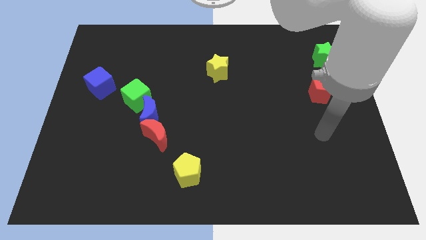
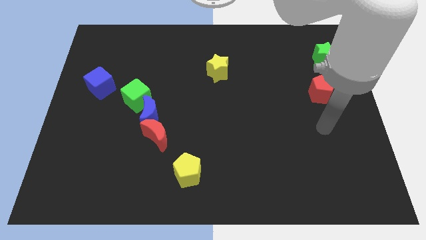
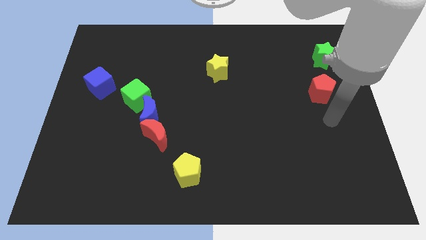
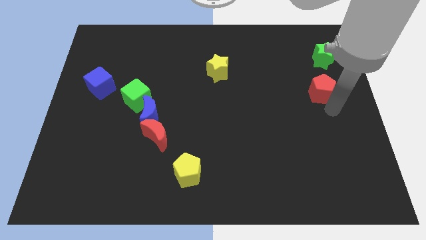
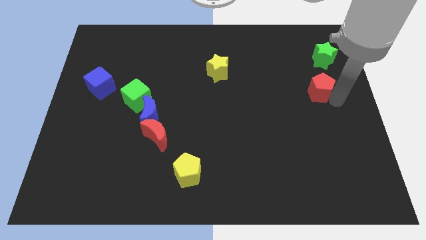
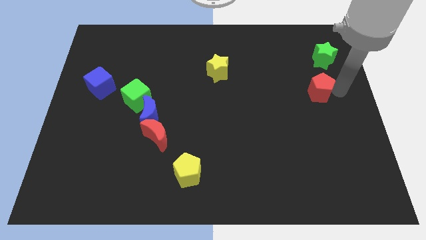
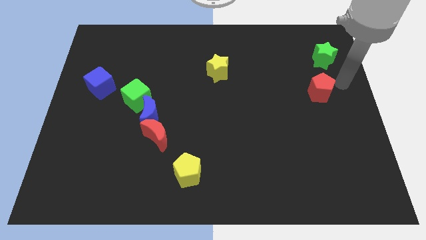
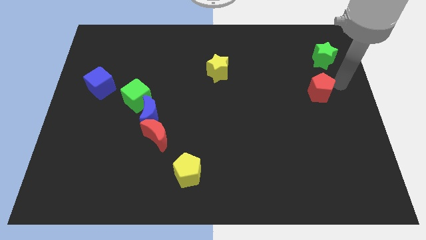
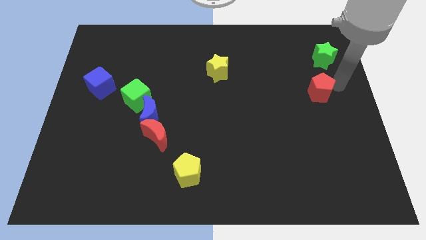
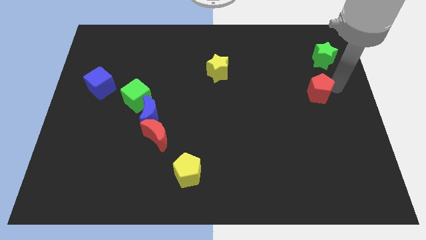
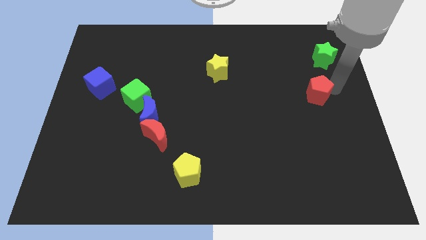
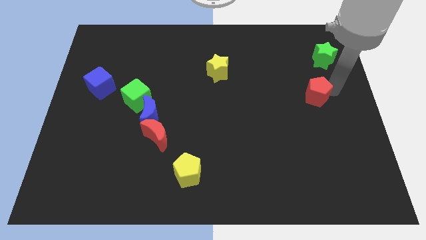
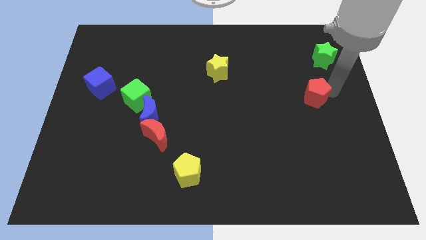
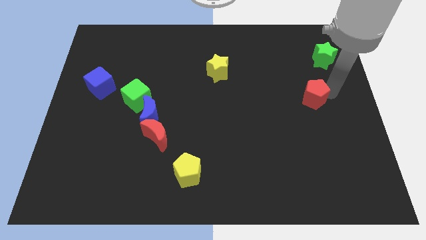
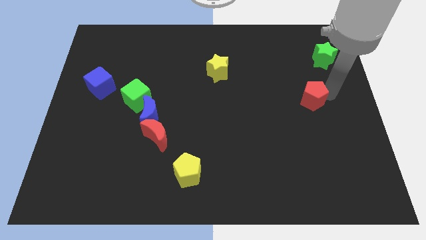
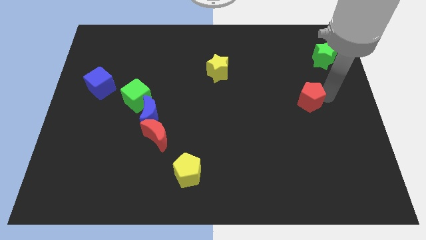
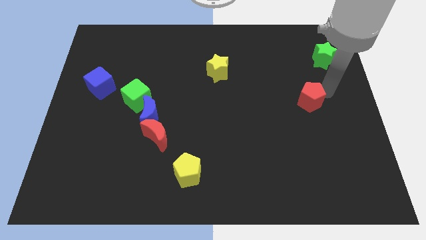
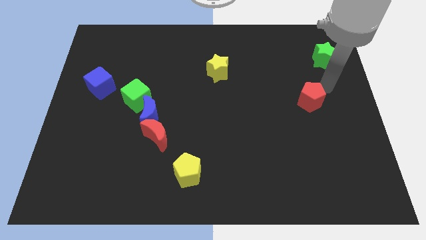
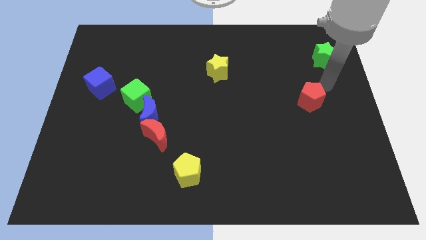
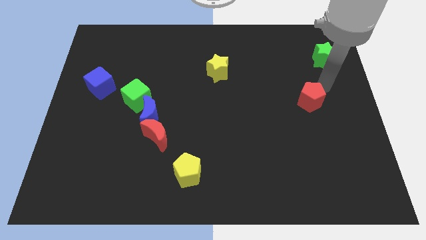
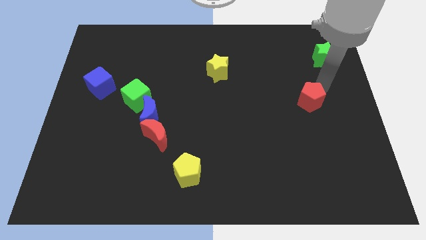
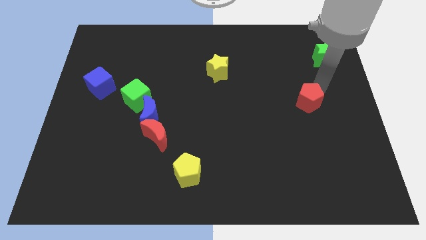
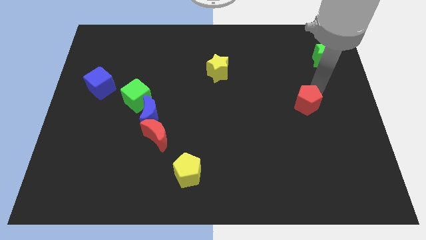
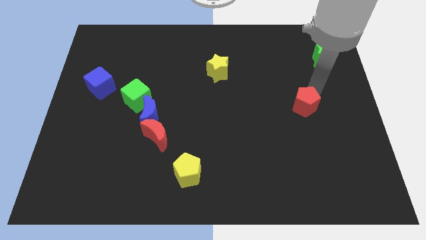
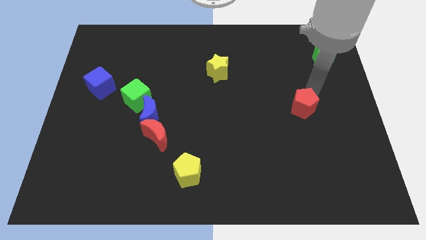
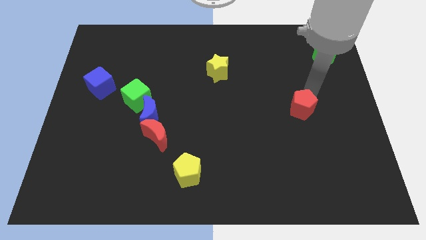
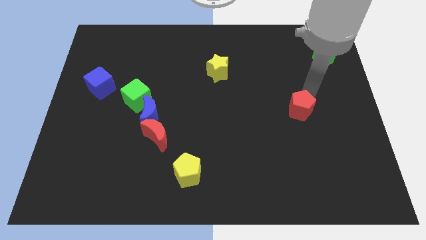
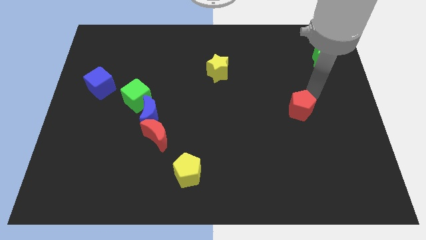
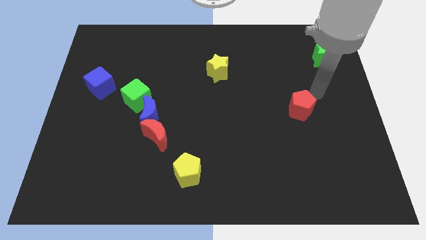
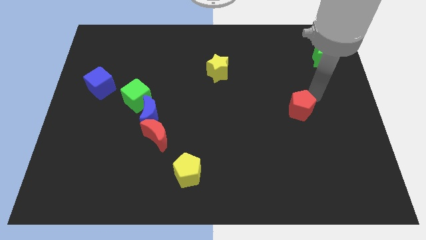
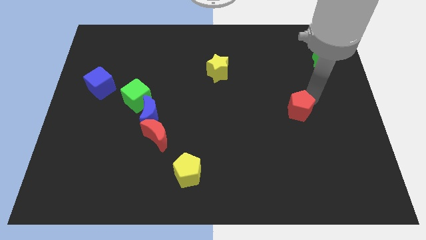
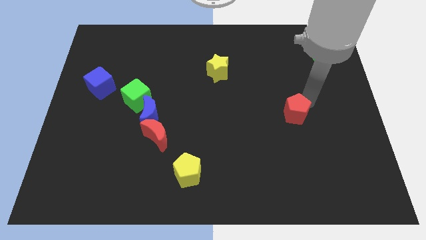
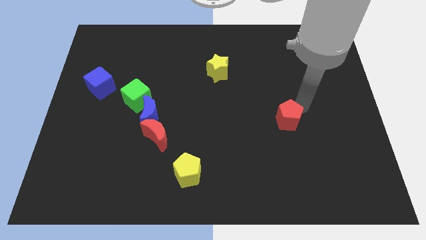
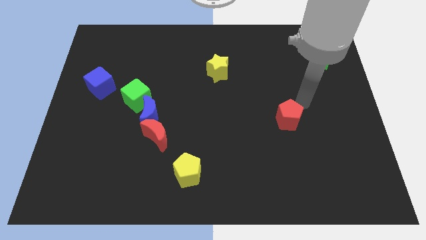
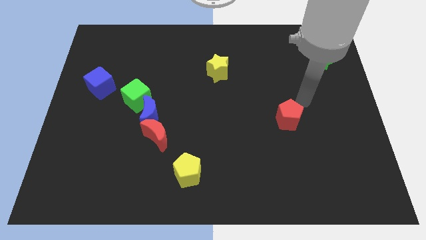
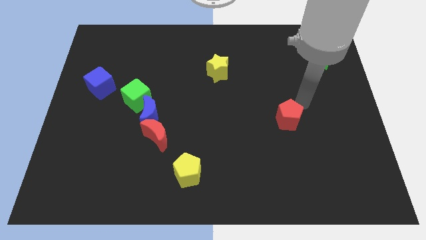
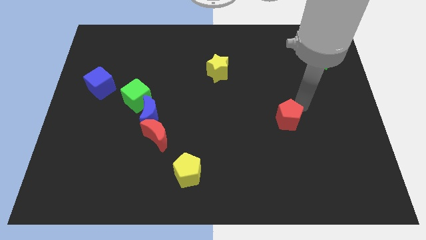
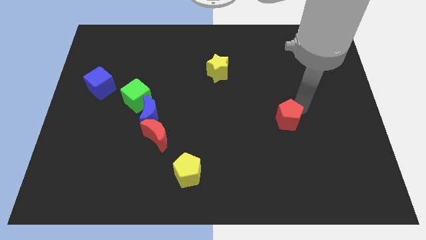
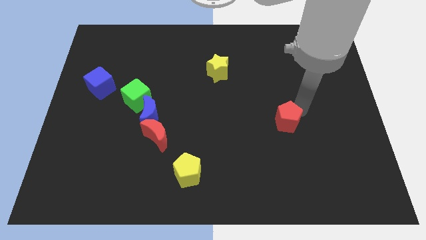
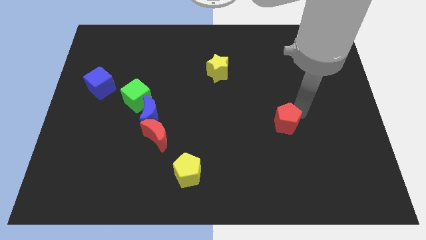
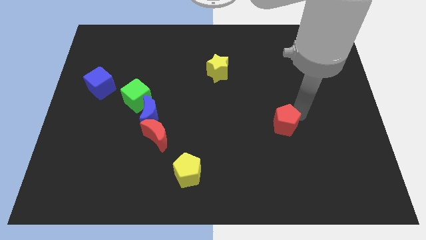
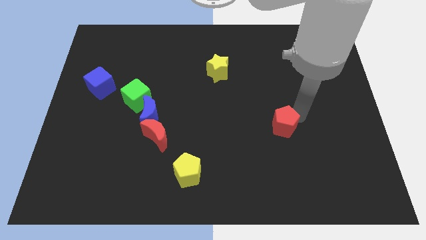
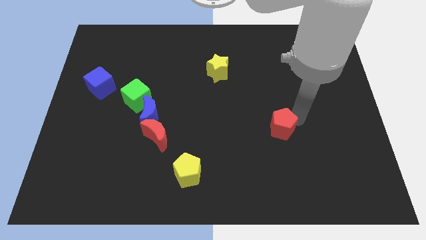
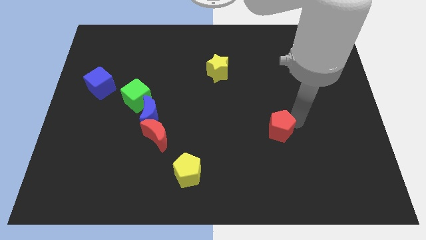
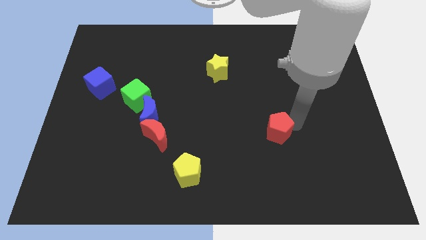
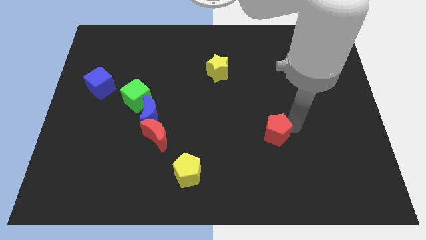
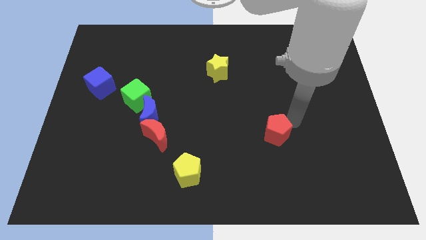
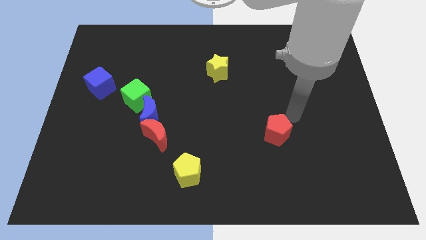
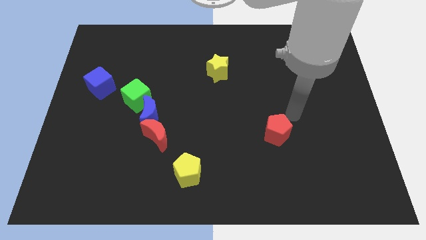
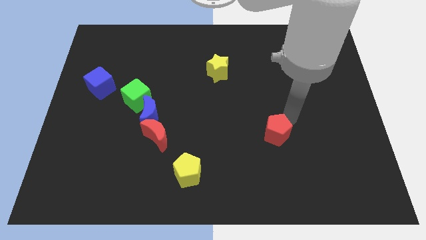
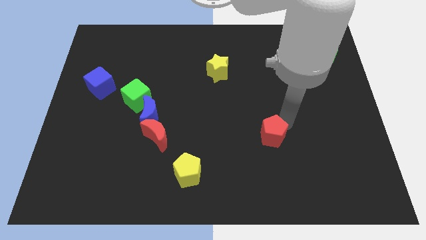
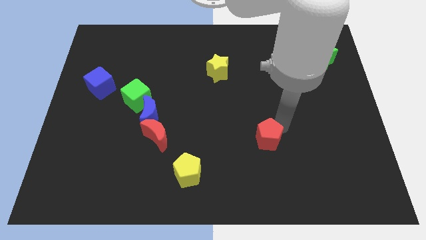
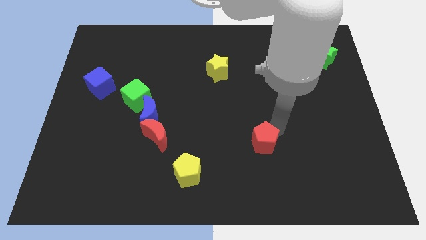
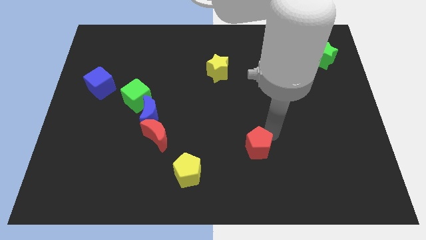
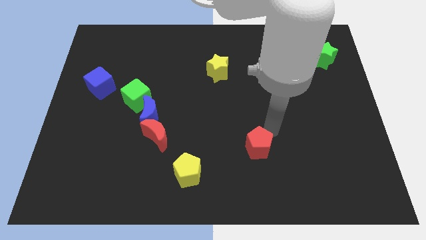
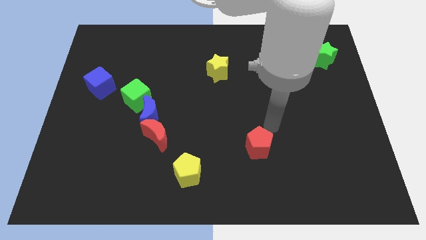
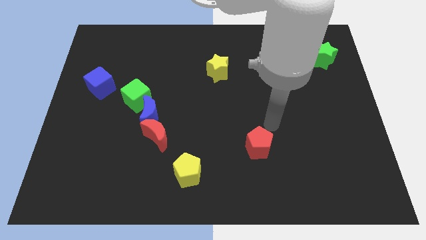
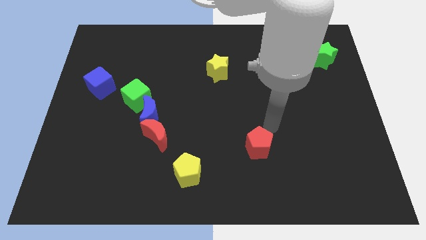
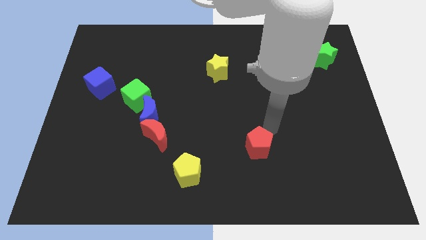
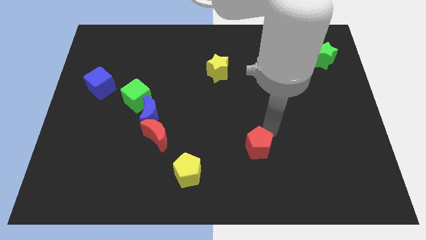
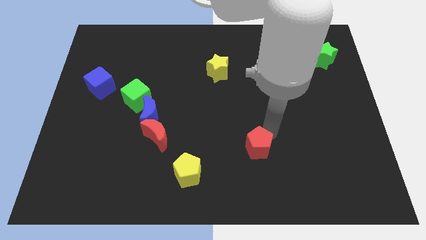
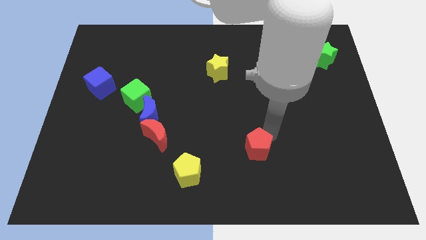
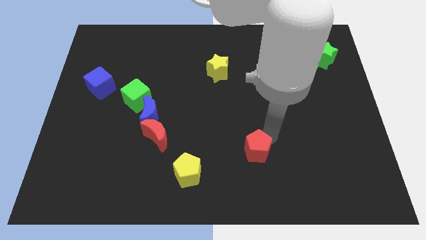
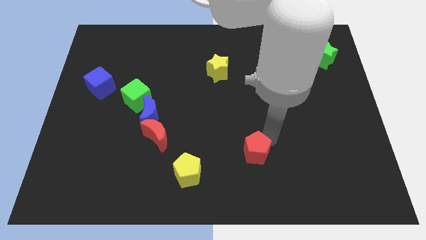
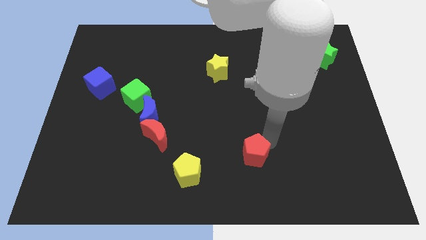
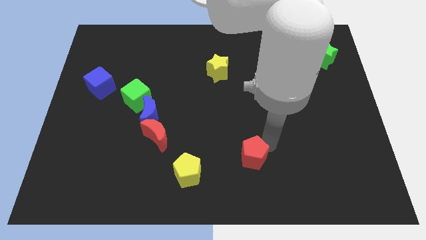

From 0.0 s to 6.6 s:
put the red pentagon to the right of the yellow pentagon

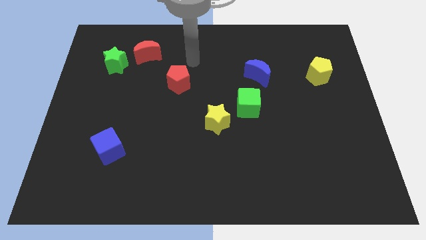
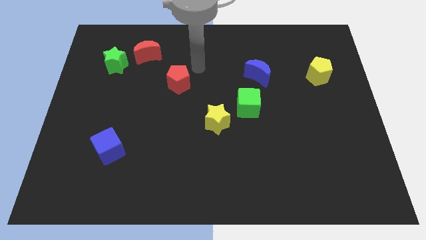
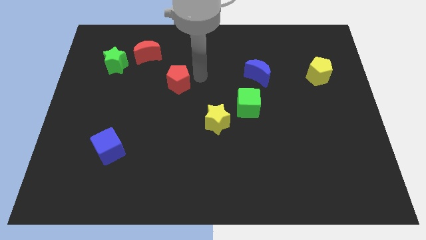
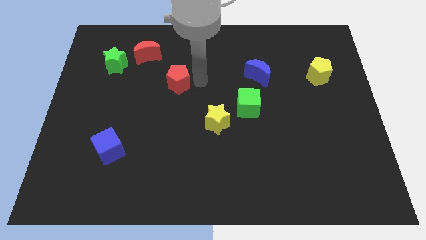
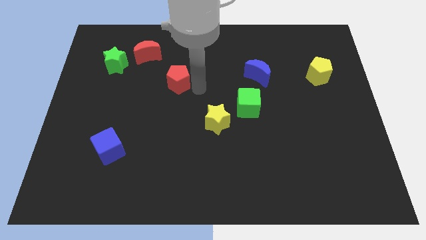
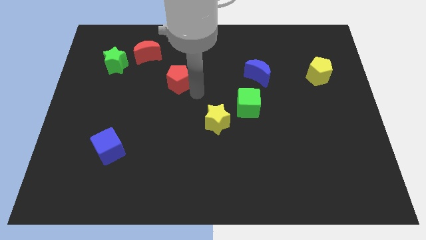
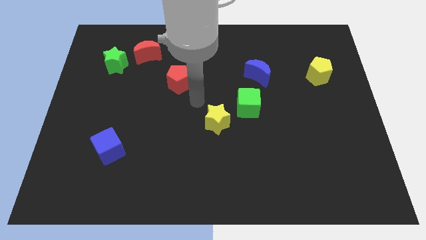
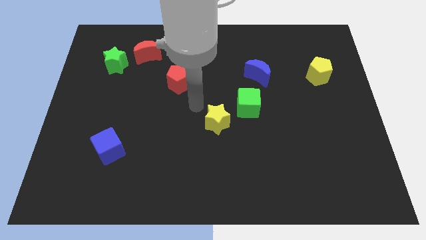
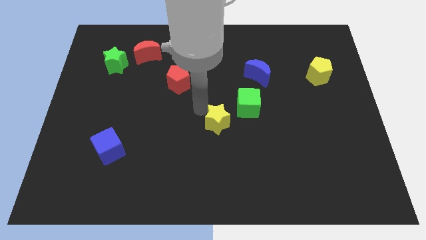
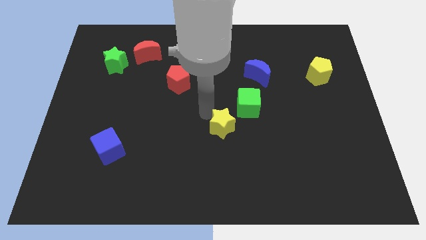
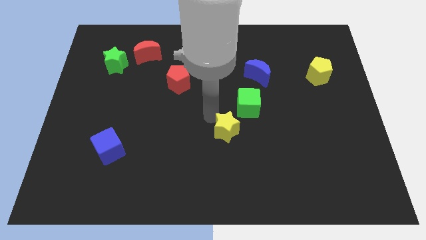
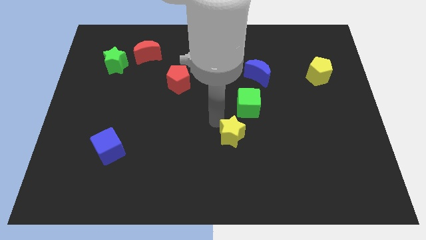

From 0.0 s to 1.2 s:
push the yellow star to the bottom of the green cube
